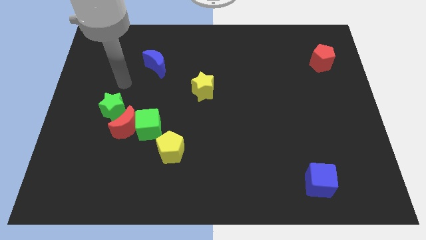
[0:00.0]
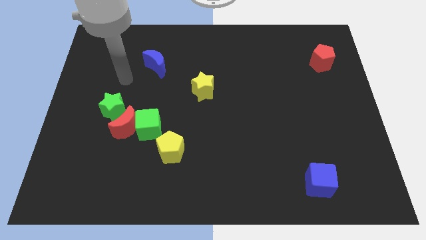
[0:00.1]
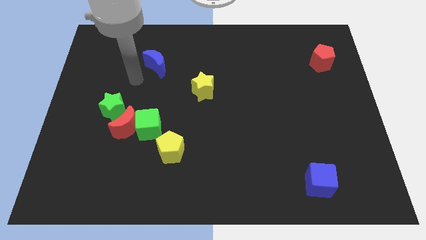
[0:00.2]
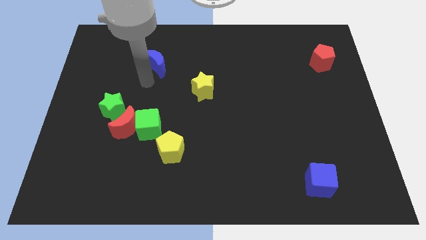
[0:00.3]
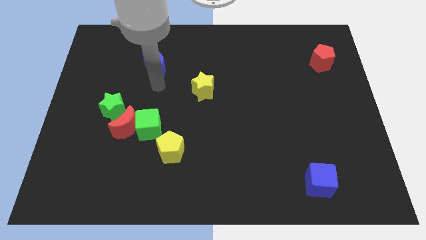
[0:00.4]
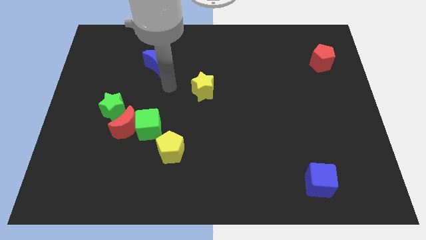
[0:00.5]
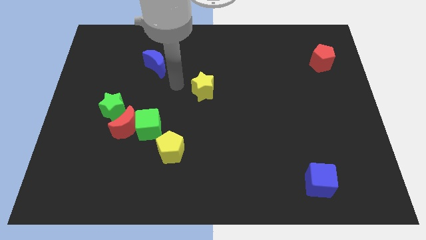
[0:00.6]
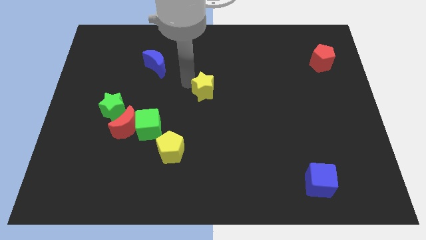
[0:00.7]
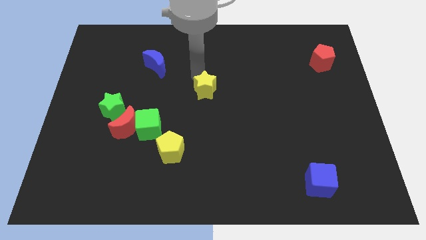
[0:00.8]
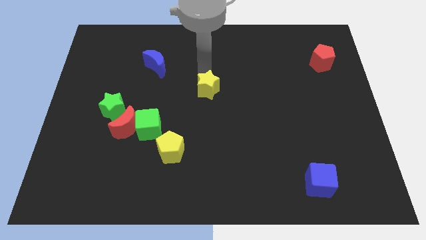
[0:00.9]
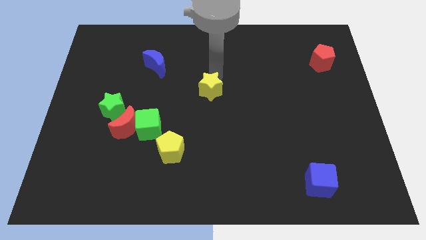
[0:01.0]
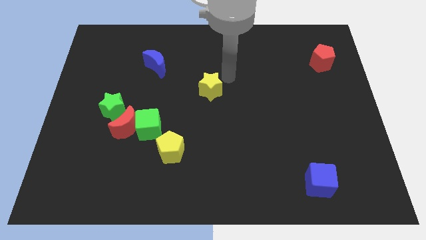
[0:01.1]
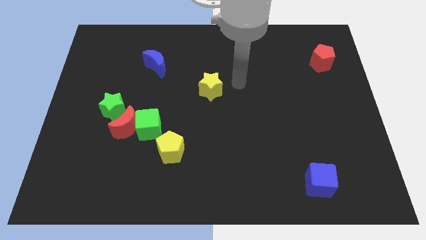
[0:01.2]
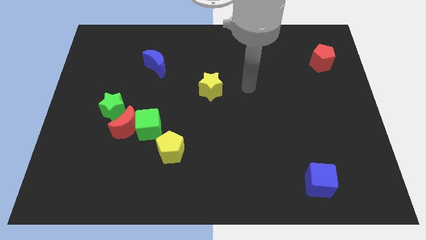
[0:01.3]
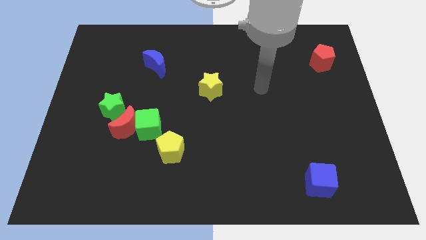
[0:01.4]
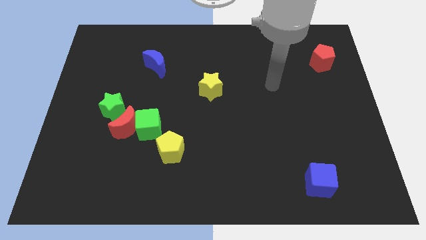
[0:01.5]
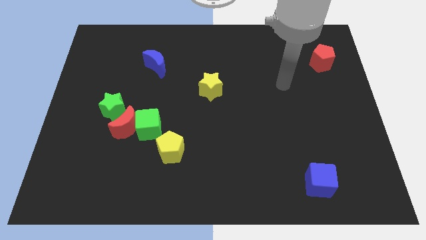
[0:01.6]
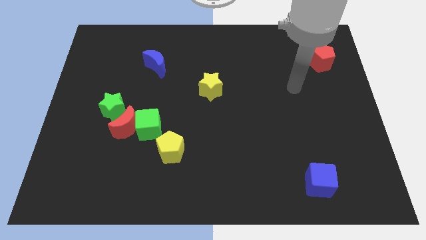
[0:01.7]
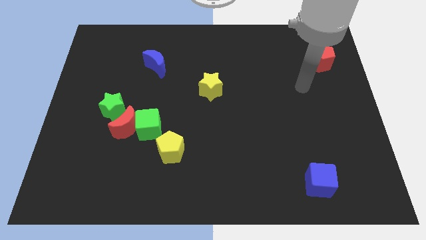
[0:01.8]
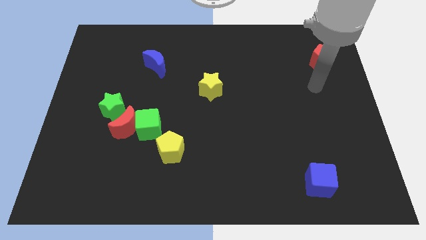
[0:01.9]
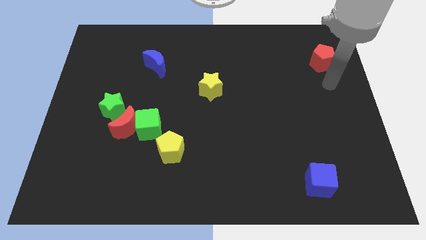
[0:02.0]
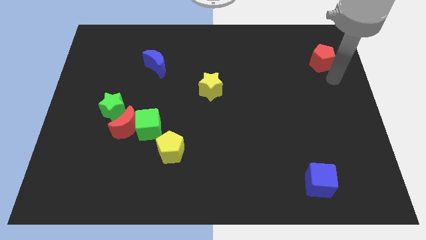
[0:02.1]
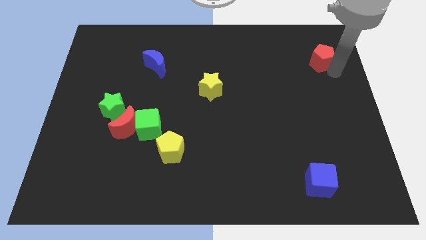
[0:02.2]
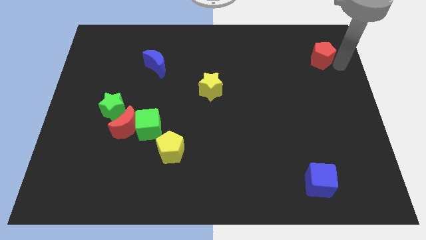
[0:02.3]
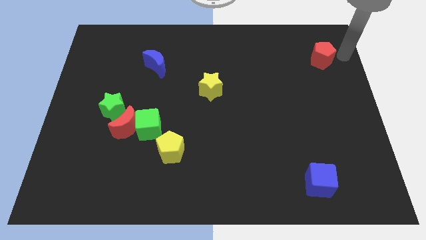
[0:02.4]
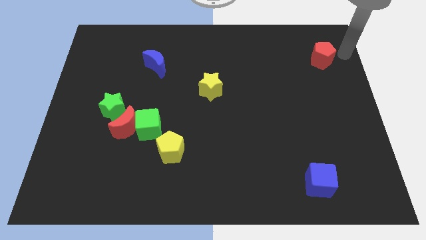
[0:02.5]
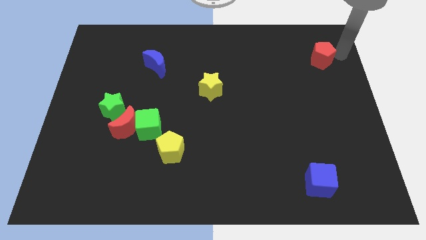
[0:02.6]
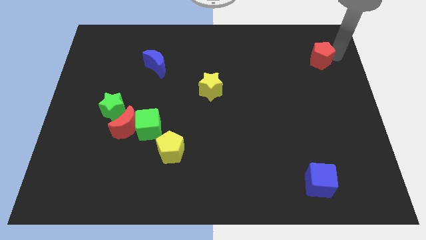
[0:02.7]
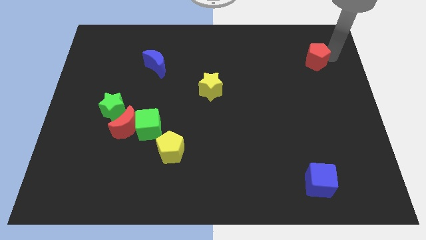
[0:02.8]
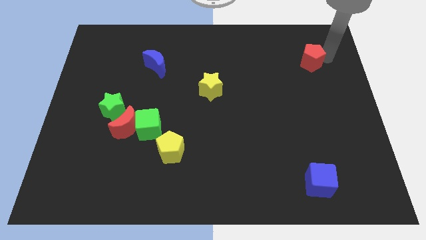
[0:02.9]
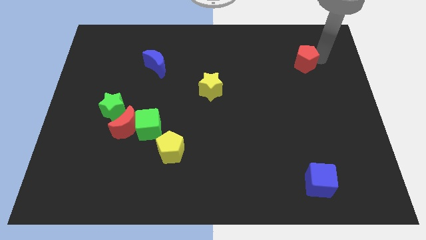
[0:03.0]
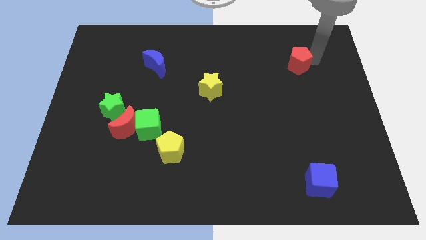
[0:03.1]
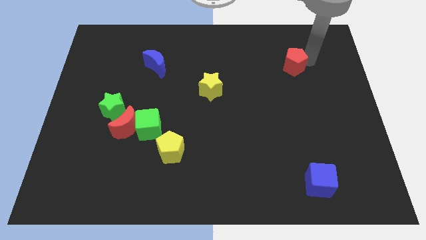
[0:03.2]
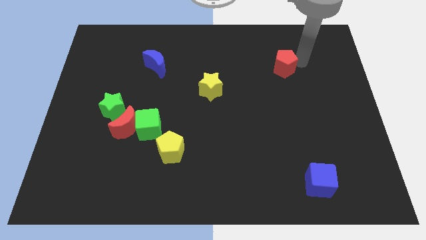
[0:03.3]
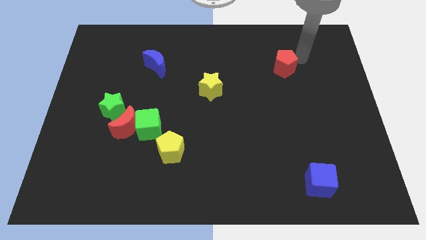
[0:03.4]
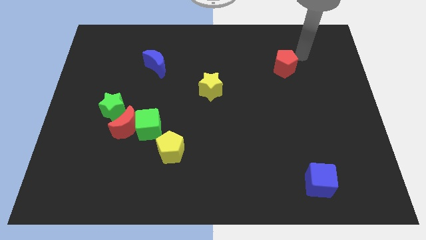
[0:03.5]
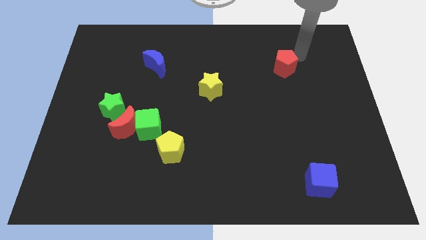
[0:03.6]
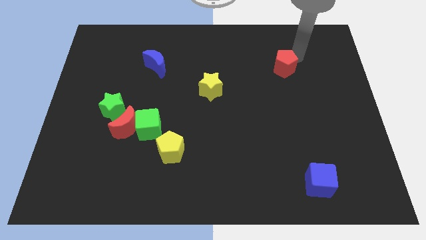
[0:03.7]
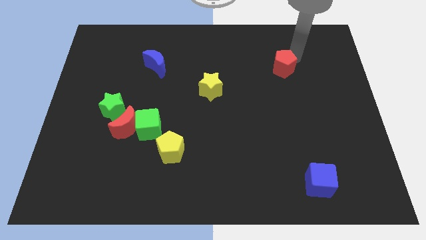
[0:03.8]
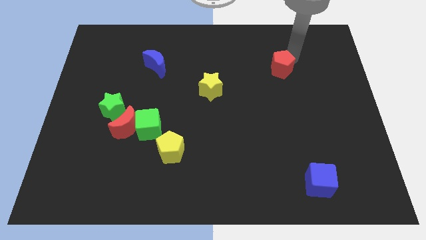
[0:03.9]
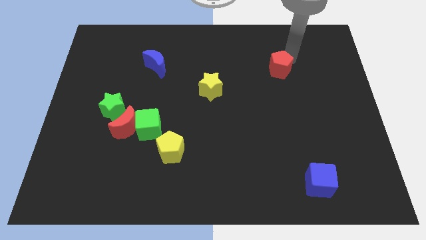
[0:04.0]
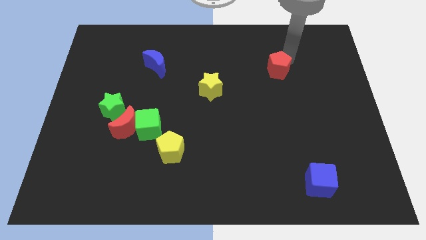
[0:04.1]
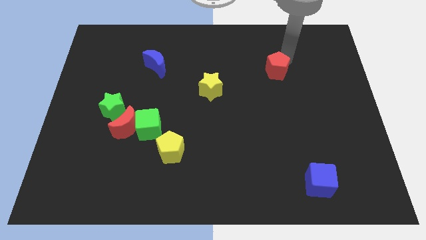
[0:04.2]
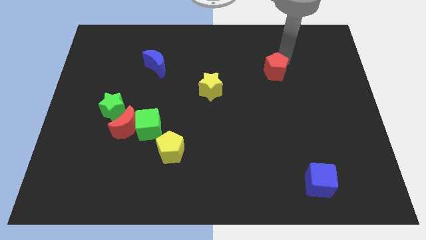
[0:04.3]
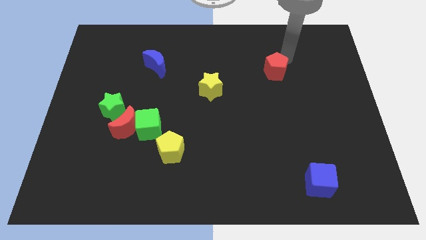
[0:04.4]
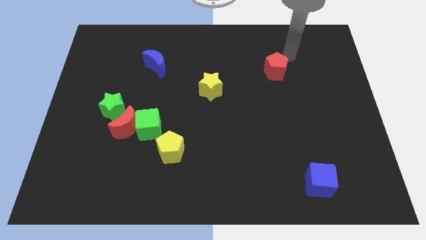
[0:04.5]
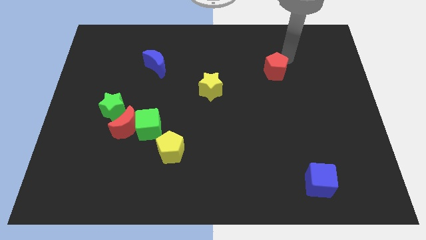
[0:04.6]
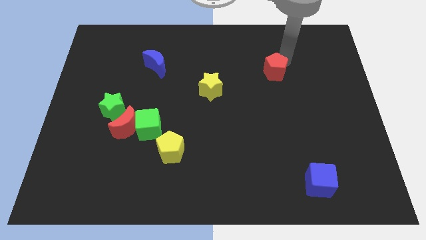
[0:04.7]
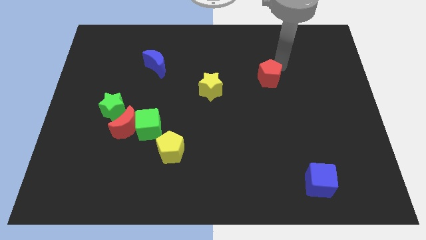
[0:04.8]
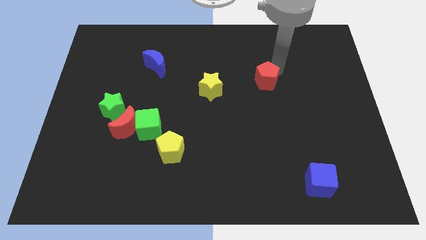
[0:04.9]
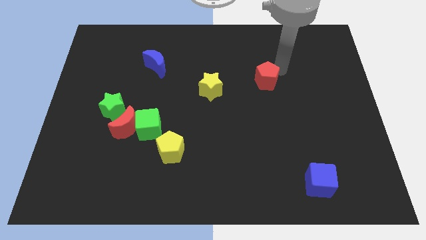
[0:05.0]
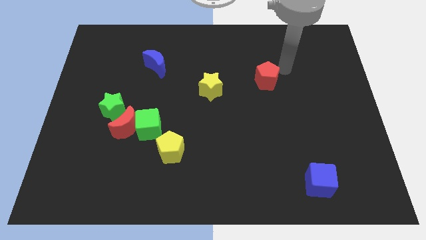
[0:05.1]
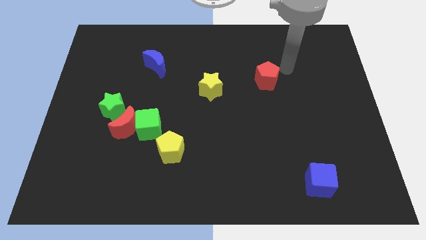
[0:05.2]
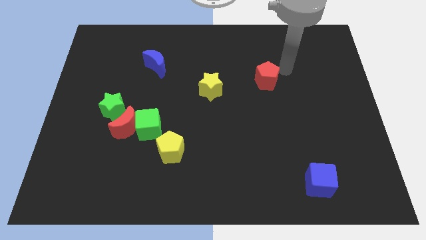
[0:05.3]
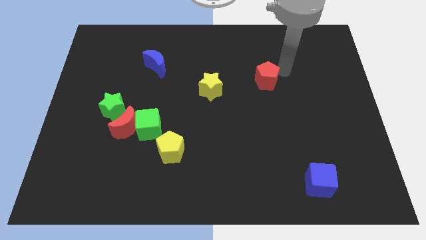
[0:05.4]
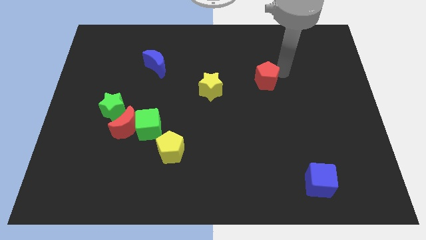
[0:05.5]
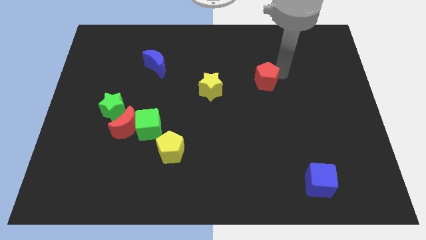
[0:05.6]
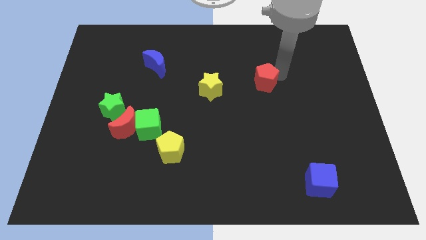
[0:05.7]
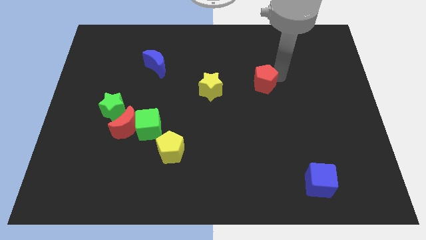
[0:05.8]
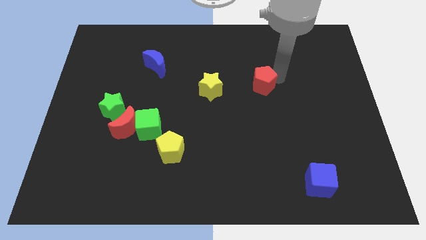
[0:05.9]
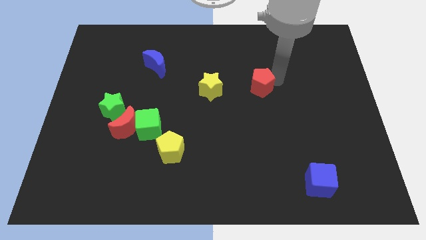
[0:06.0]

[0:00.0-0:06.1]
push the red pentagon to the center

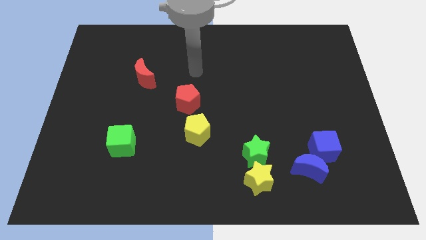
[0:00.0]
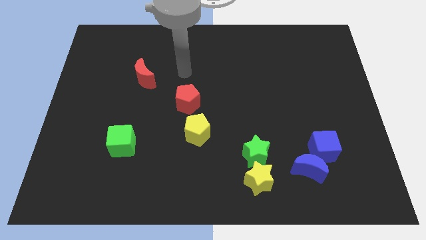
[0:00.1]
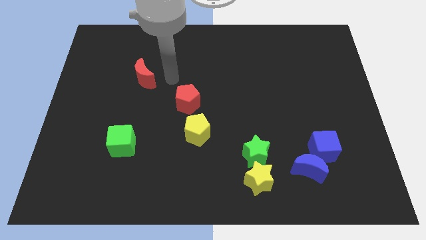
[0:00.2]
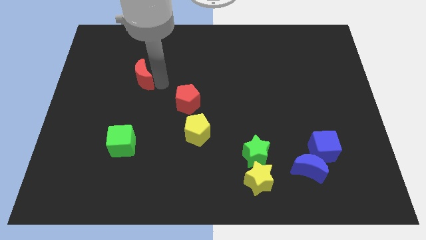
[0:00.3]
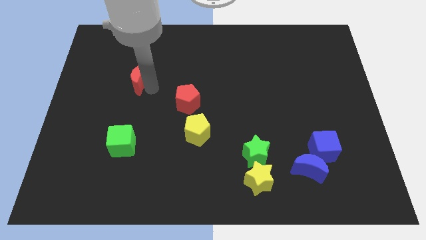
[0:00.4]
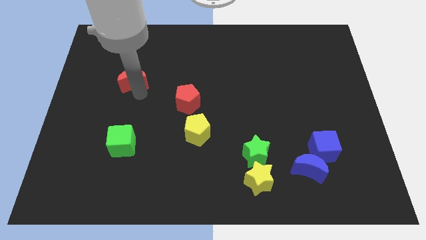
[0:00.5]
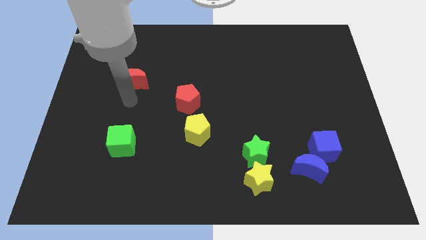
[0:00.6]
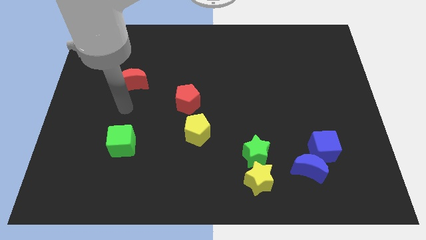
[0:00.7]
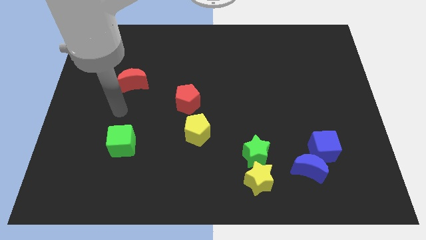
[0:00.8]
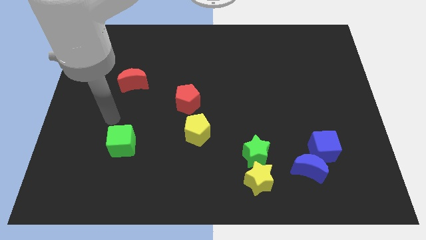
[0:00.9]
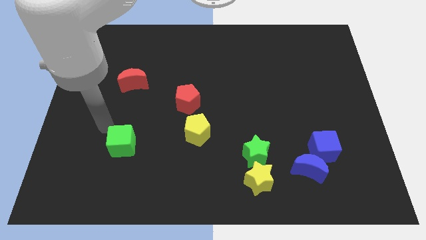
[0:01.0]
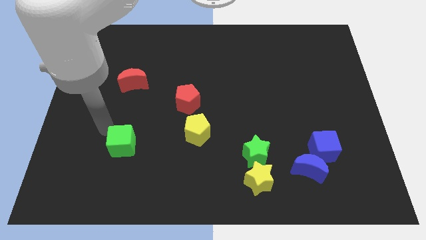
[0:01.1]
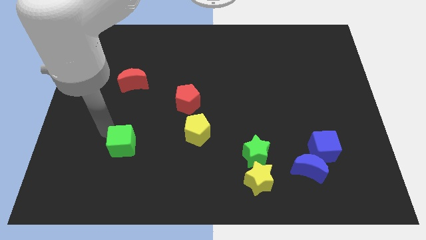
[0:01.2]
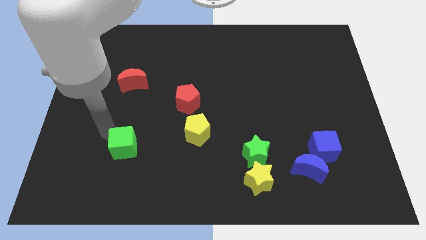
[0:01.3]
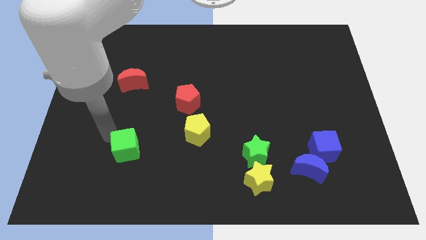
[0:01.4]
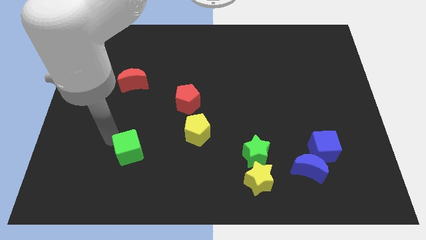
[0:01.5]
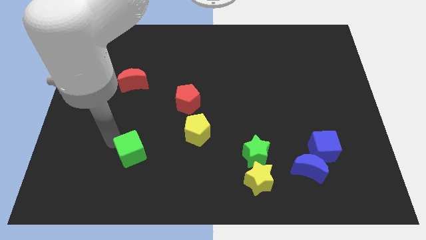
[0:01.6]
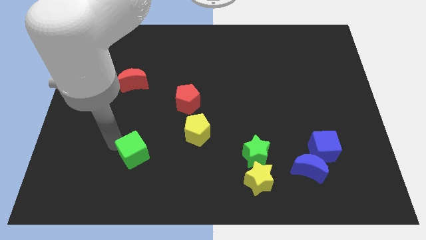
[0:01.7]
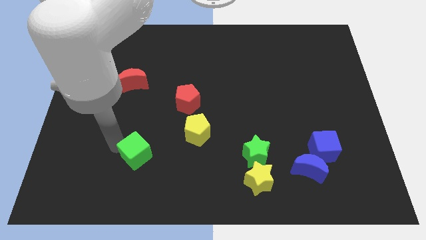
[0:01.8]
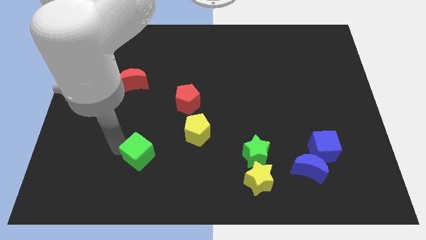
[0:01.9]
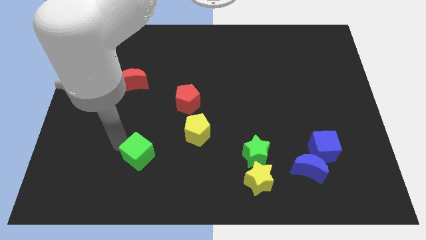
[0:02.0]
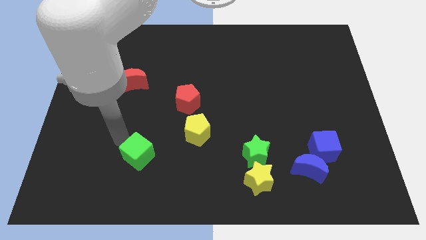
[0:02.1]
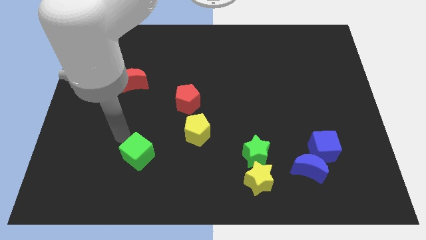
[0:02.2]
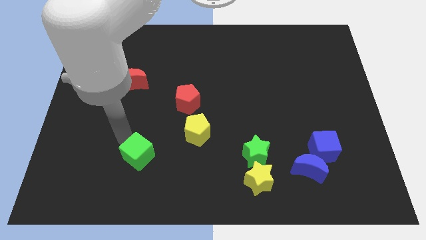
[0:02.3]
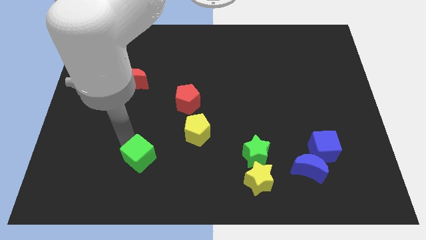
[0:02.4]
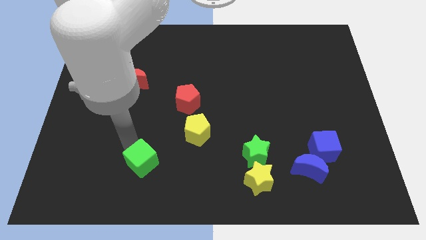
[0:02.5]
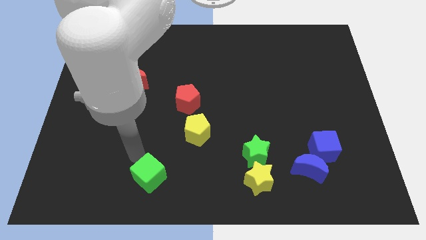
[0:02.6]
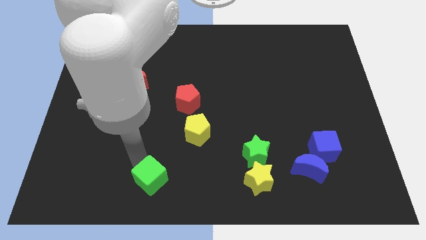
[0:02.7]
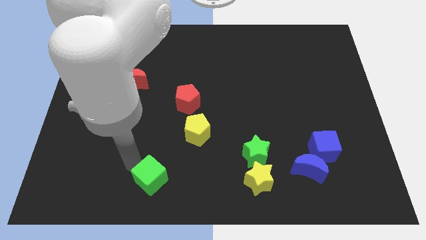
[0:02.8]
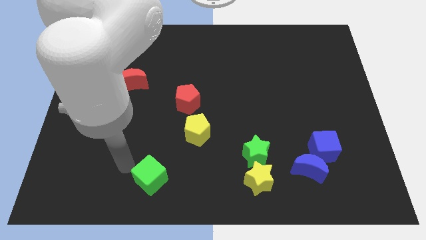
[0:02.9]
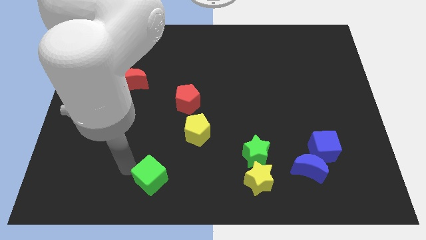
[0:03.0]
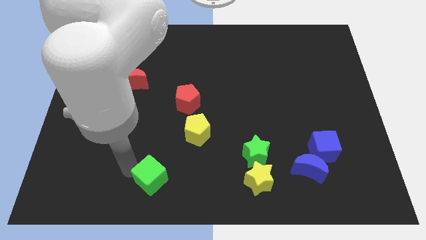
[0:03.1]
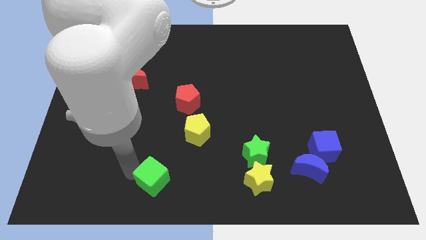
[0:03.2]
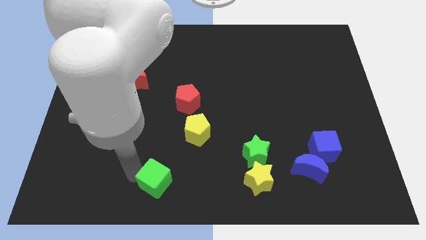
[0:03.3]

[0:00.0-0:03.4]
put the green cube to the bottom side
